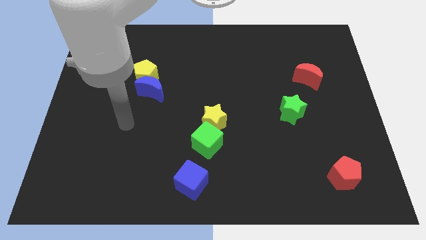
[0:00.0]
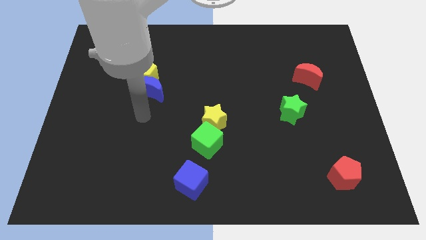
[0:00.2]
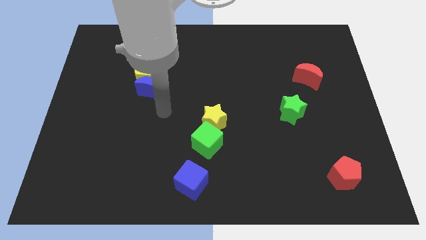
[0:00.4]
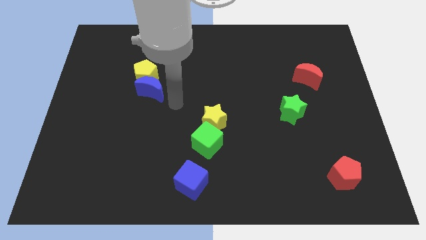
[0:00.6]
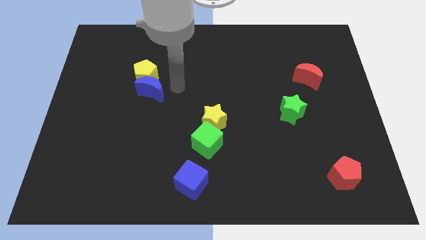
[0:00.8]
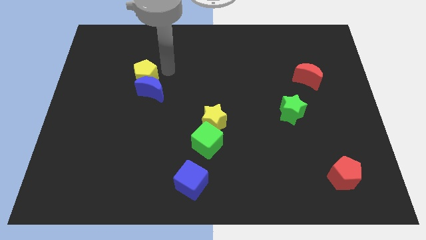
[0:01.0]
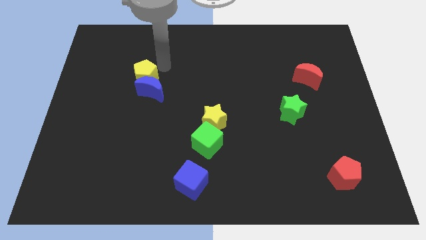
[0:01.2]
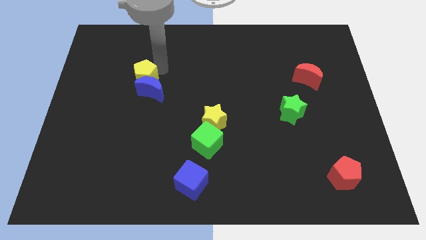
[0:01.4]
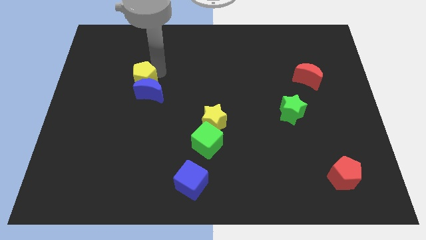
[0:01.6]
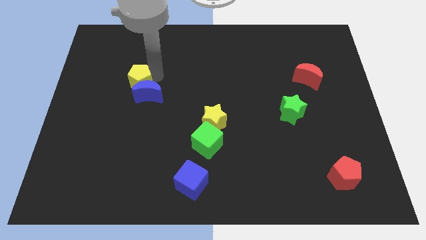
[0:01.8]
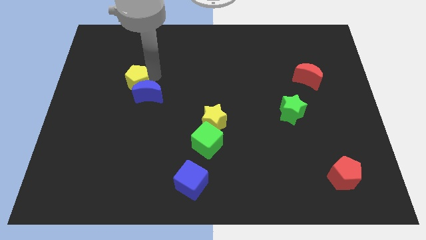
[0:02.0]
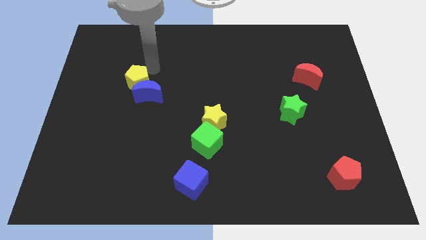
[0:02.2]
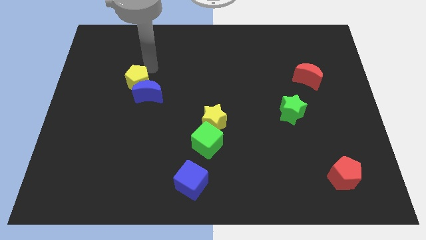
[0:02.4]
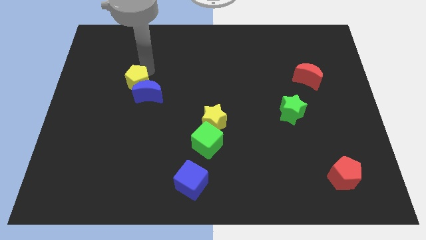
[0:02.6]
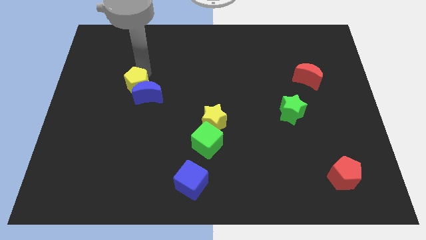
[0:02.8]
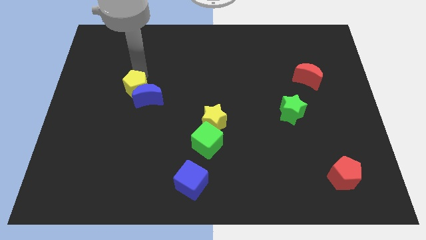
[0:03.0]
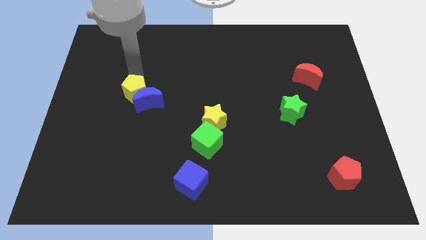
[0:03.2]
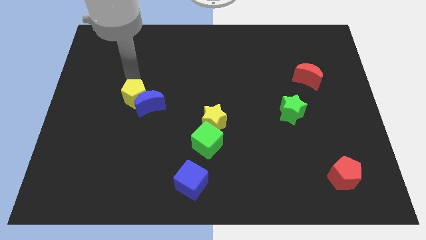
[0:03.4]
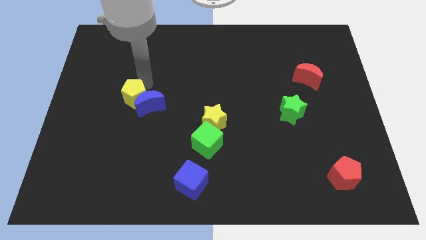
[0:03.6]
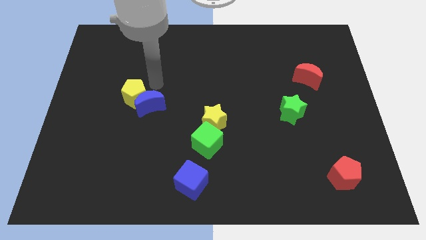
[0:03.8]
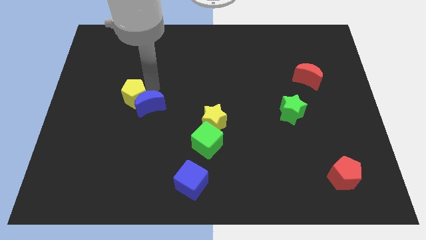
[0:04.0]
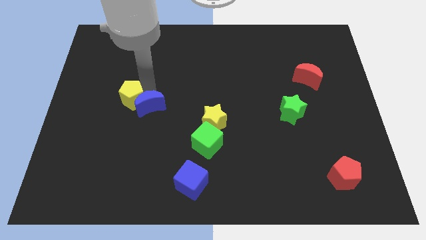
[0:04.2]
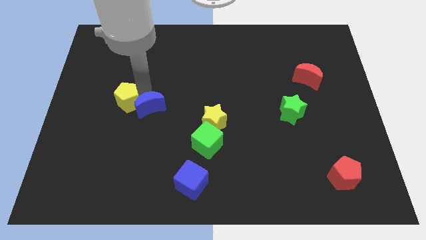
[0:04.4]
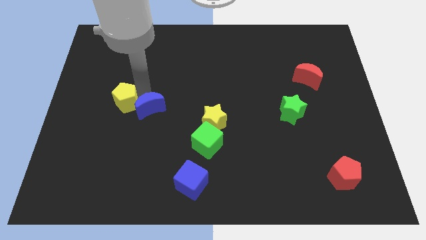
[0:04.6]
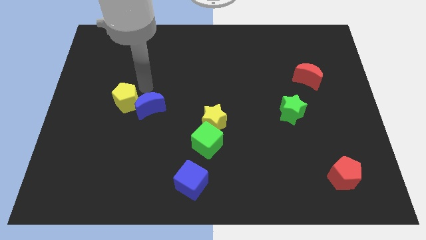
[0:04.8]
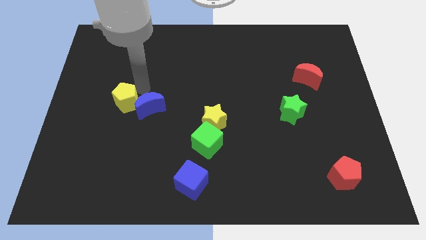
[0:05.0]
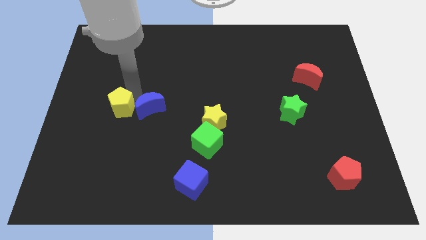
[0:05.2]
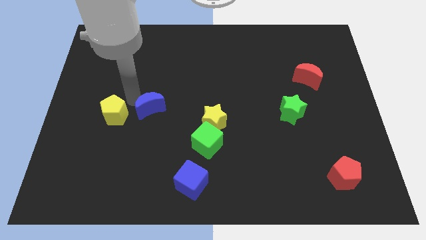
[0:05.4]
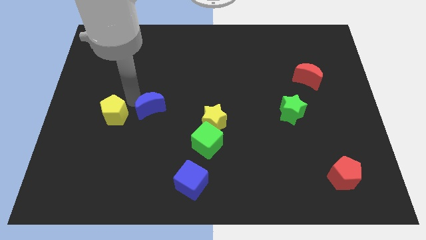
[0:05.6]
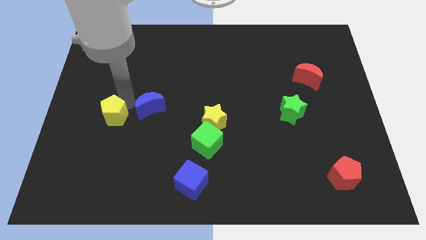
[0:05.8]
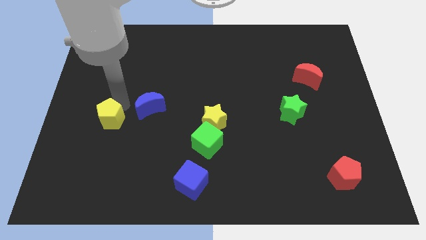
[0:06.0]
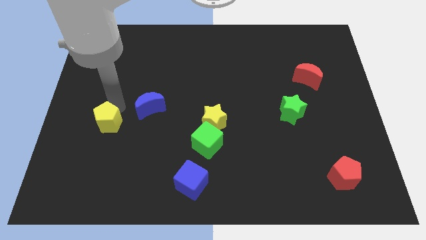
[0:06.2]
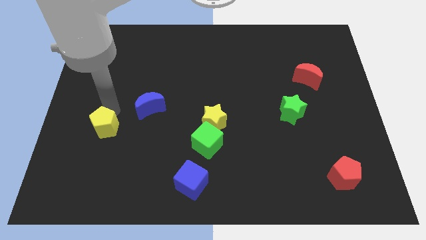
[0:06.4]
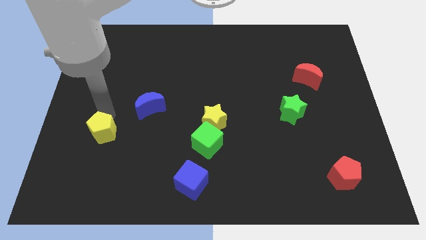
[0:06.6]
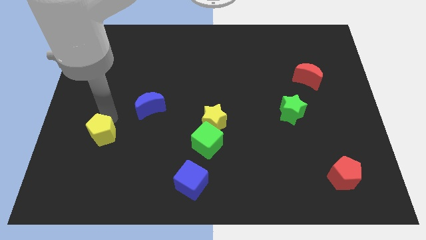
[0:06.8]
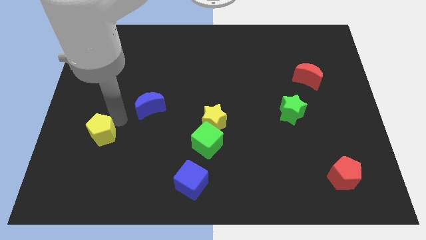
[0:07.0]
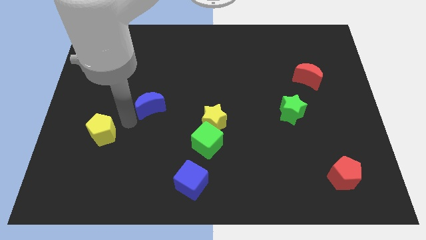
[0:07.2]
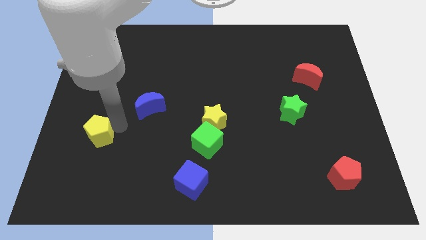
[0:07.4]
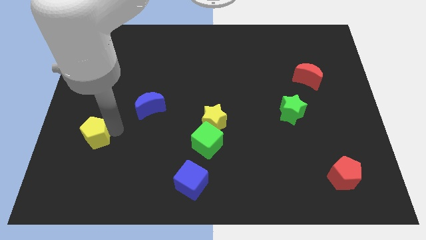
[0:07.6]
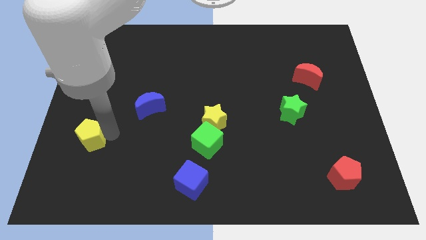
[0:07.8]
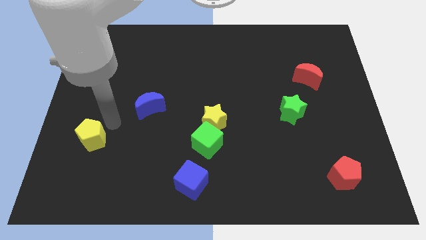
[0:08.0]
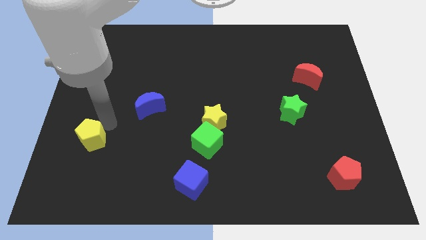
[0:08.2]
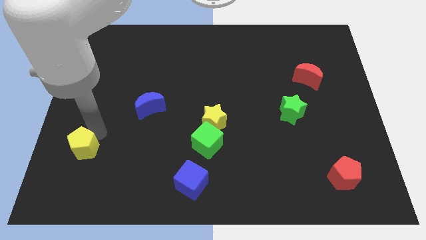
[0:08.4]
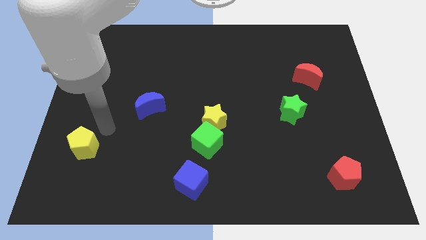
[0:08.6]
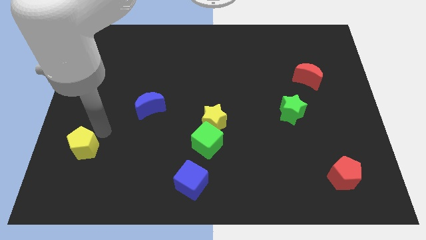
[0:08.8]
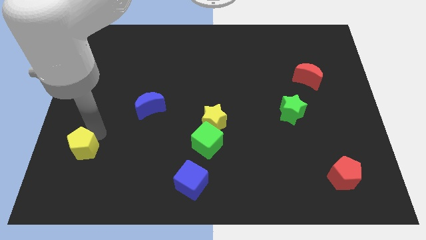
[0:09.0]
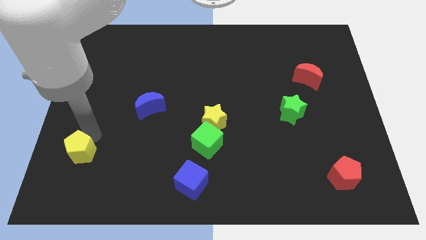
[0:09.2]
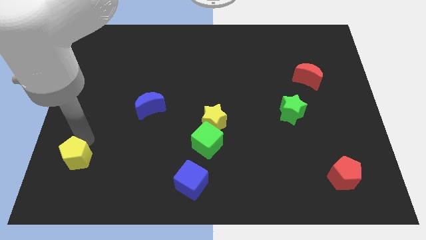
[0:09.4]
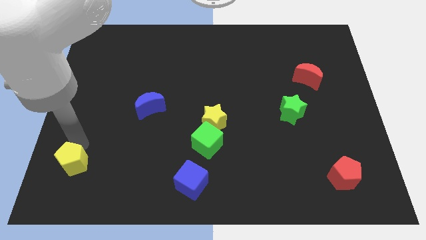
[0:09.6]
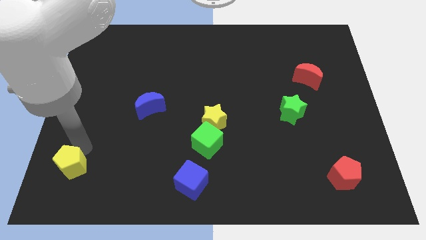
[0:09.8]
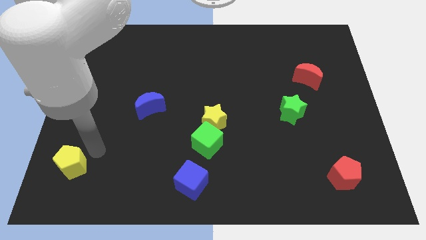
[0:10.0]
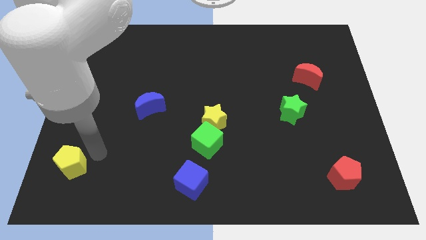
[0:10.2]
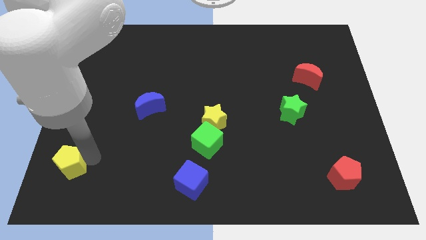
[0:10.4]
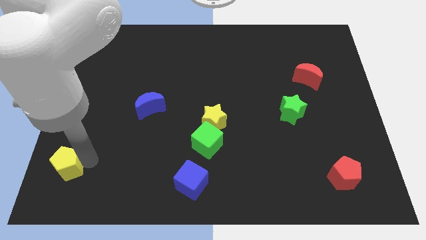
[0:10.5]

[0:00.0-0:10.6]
slide the yellow pentagon to the bottom left of the board

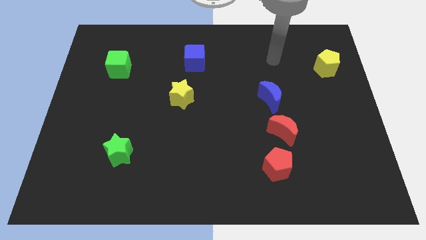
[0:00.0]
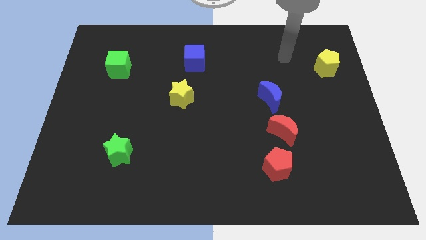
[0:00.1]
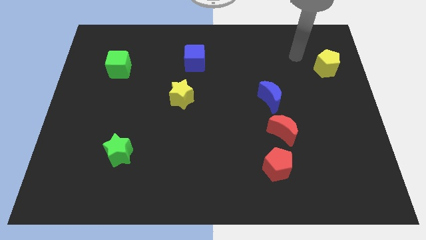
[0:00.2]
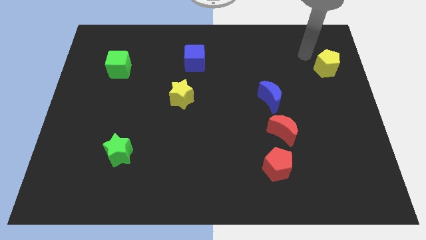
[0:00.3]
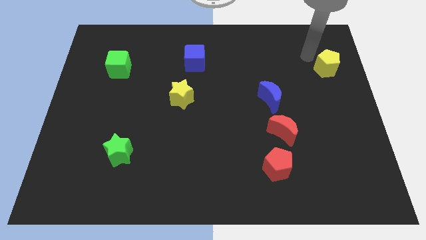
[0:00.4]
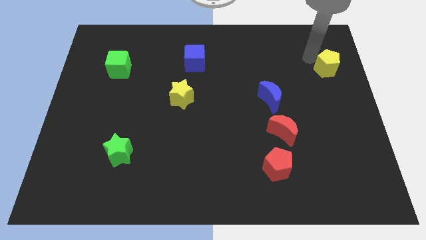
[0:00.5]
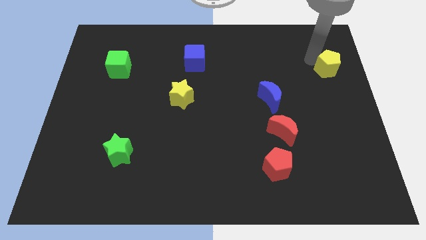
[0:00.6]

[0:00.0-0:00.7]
push the yellow pentagon to the right side of the board
